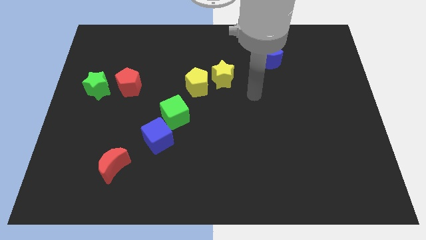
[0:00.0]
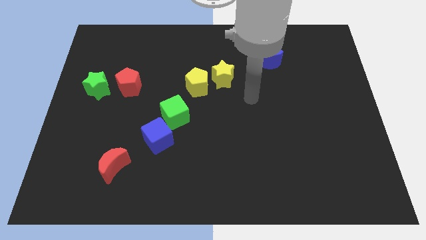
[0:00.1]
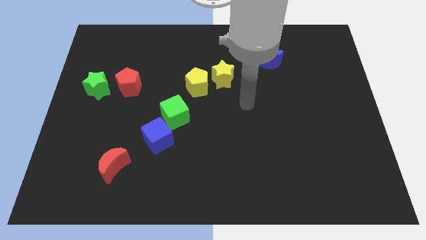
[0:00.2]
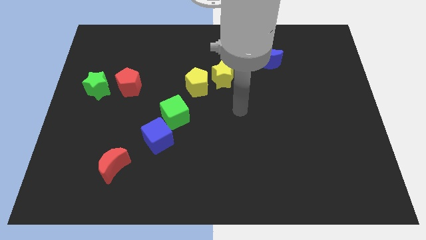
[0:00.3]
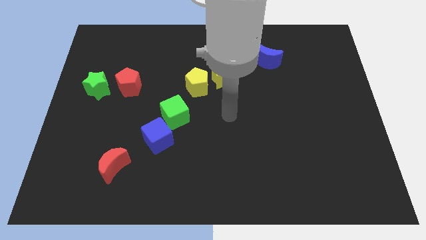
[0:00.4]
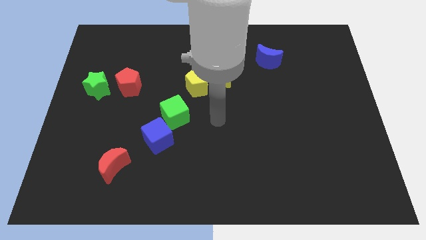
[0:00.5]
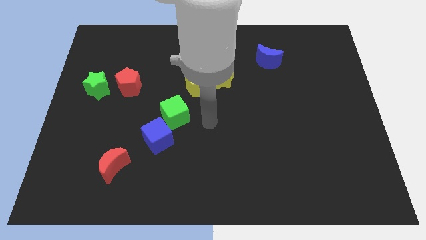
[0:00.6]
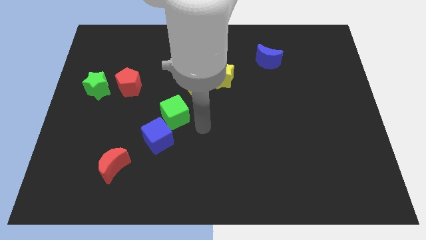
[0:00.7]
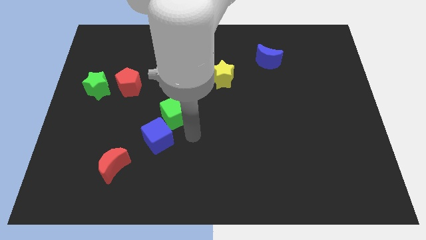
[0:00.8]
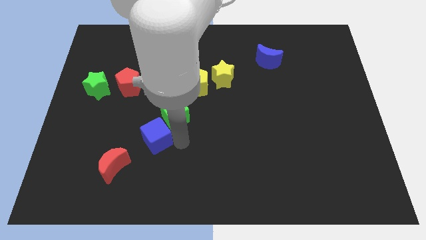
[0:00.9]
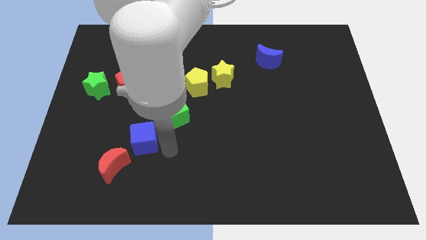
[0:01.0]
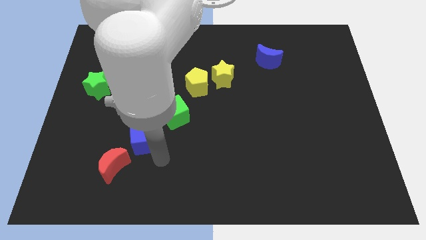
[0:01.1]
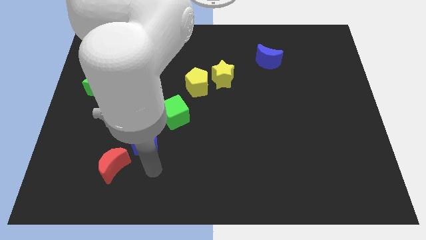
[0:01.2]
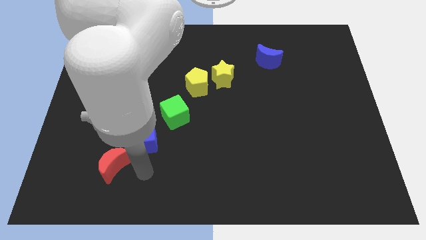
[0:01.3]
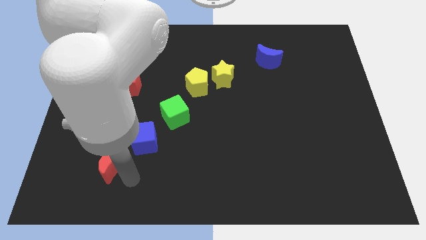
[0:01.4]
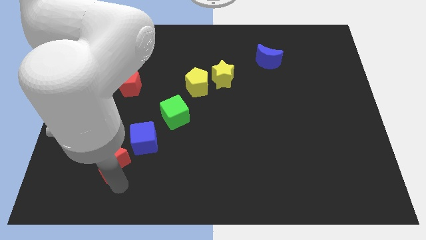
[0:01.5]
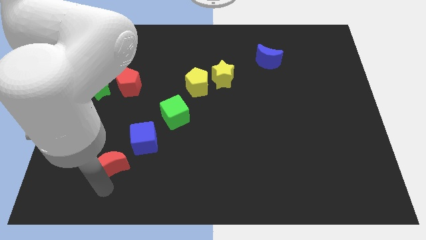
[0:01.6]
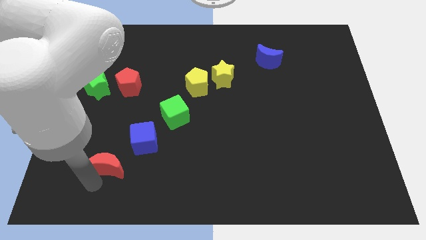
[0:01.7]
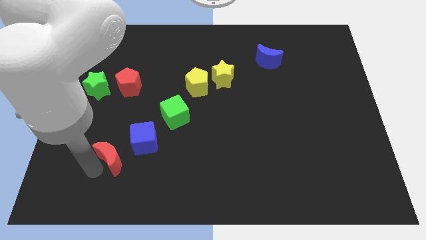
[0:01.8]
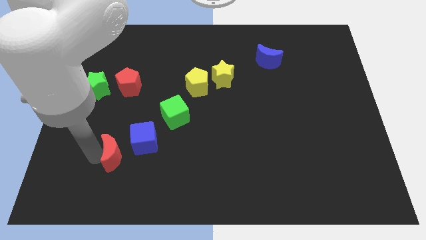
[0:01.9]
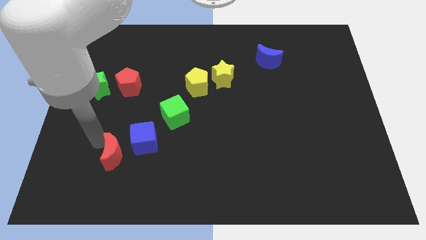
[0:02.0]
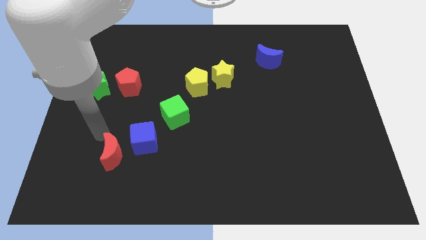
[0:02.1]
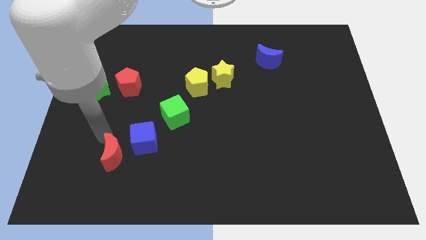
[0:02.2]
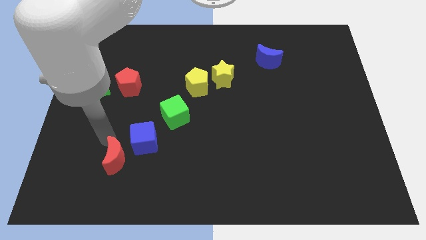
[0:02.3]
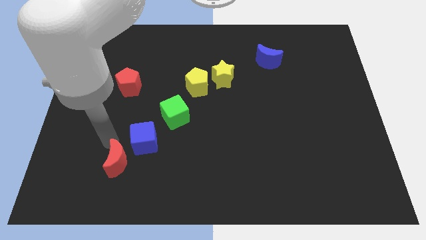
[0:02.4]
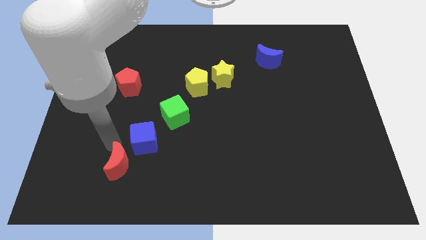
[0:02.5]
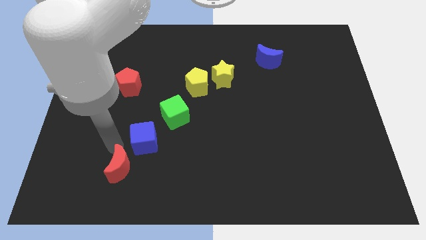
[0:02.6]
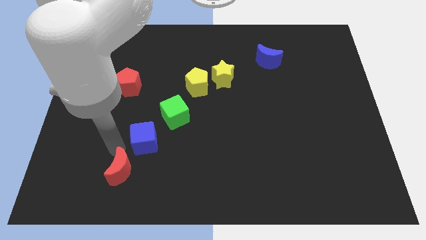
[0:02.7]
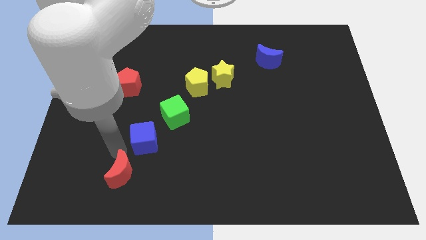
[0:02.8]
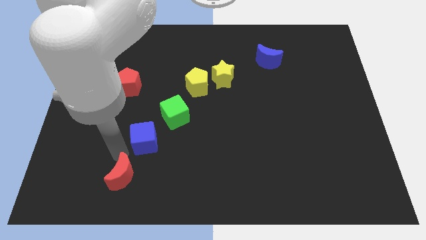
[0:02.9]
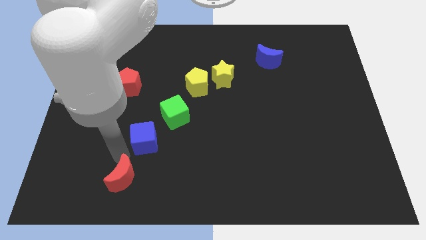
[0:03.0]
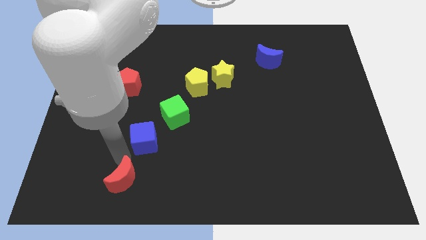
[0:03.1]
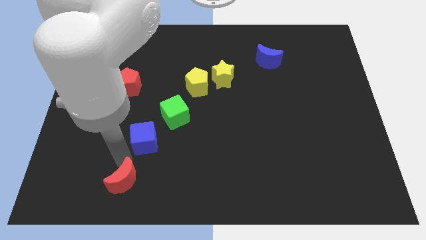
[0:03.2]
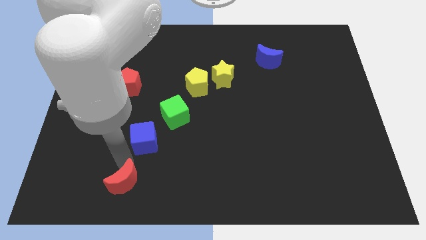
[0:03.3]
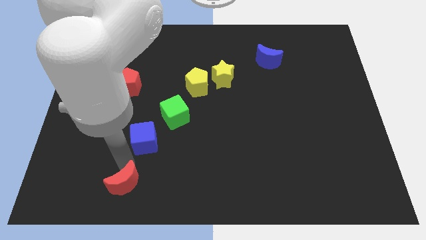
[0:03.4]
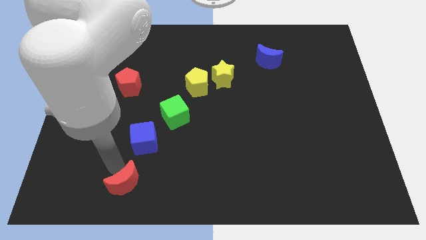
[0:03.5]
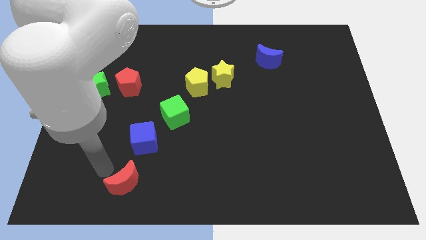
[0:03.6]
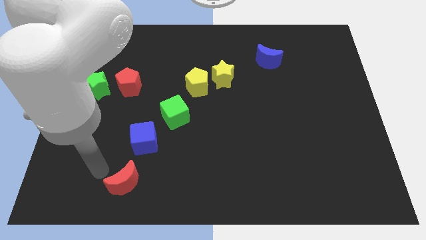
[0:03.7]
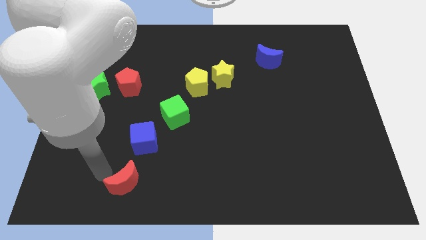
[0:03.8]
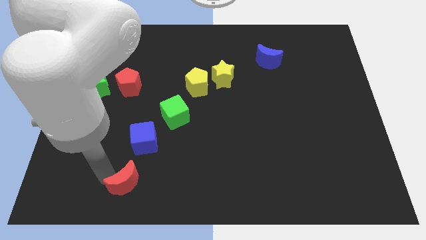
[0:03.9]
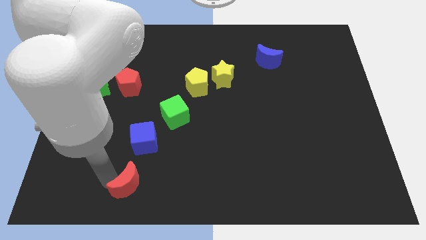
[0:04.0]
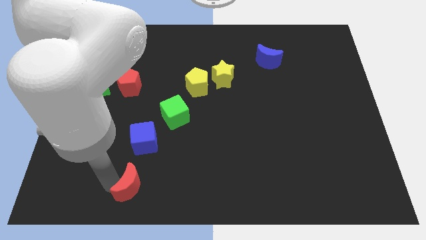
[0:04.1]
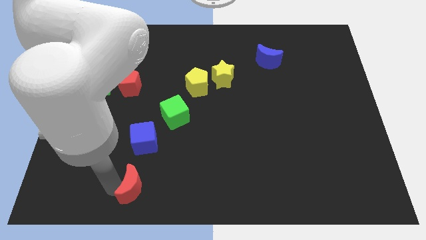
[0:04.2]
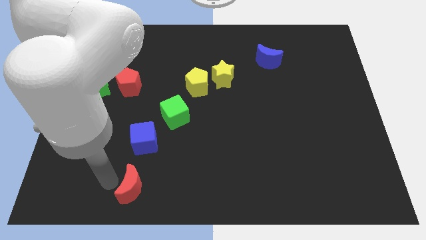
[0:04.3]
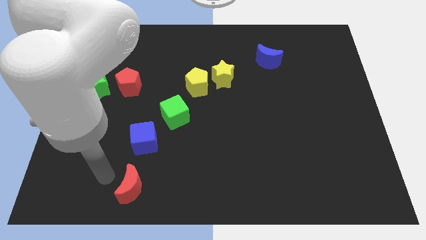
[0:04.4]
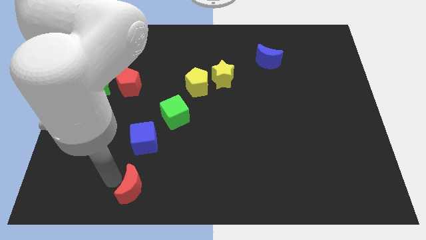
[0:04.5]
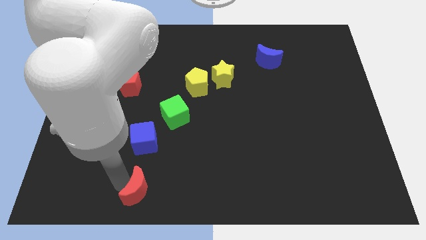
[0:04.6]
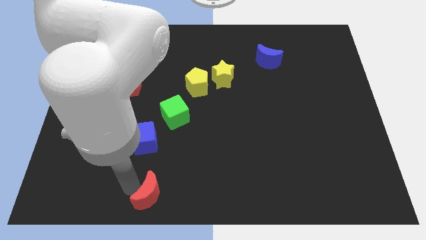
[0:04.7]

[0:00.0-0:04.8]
push the red moon to the bottom side

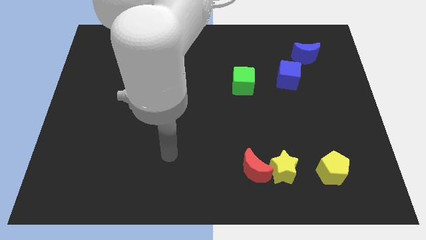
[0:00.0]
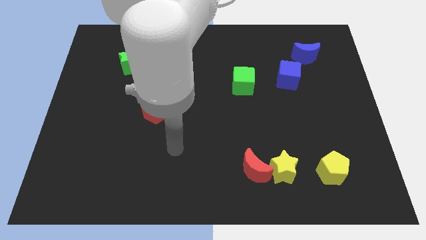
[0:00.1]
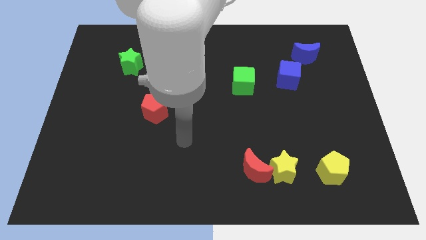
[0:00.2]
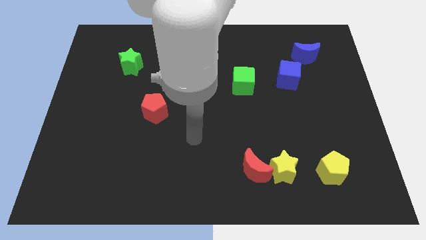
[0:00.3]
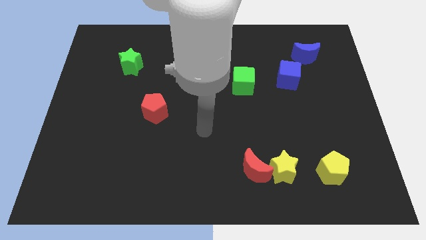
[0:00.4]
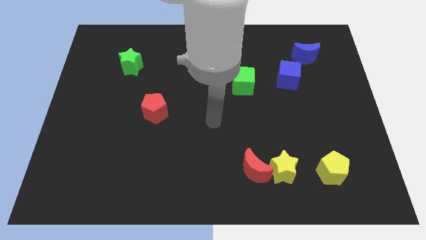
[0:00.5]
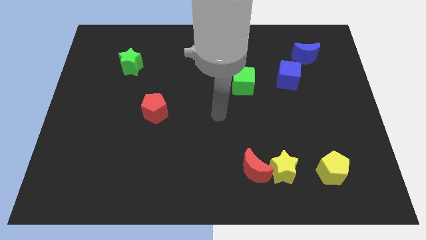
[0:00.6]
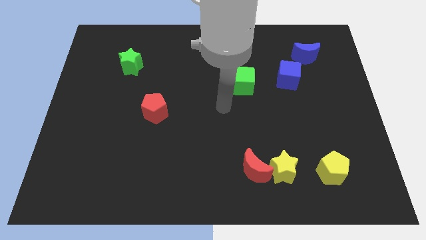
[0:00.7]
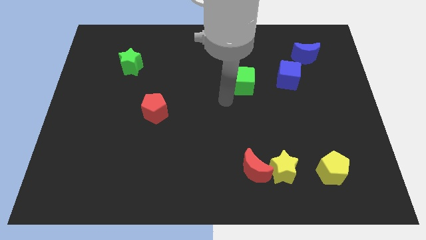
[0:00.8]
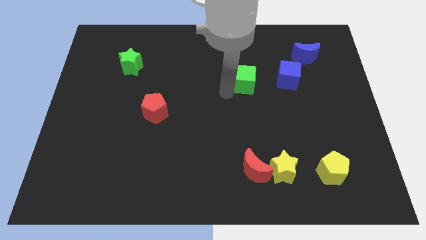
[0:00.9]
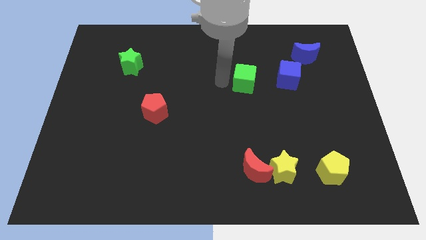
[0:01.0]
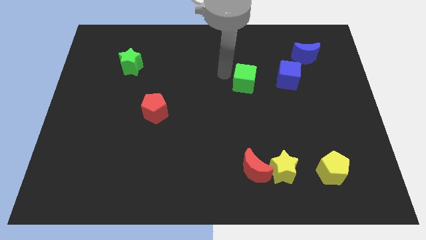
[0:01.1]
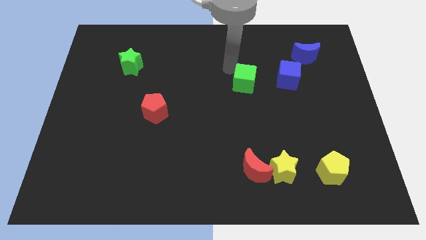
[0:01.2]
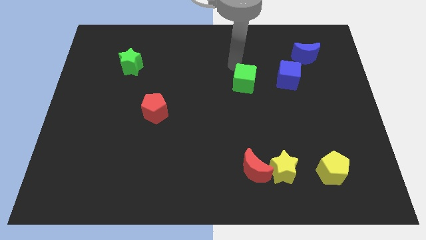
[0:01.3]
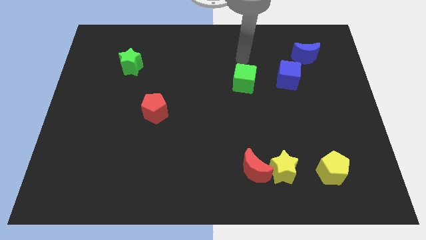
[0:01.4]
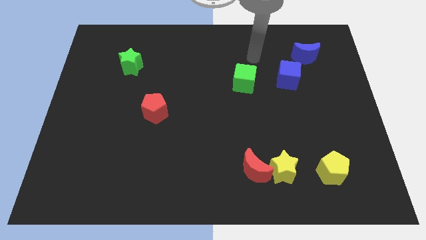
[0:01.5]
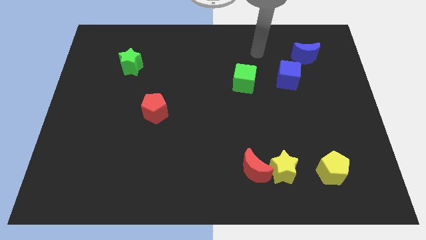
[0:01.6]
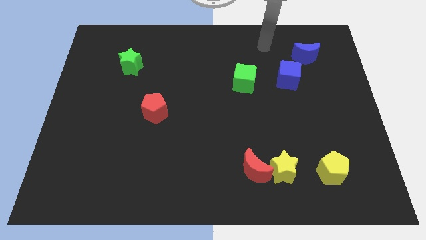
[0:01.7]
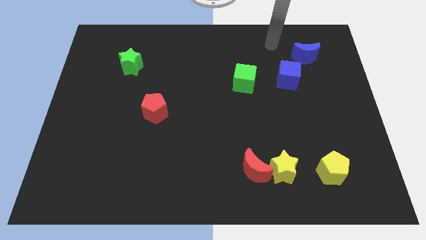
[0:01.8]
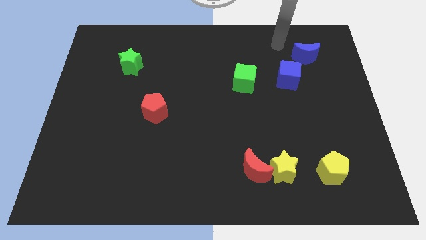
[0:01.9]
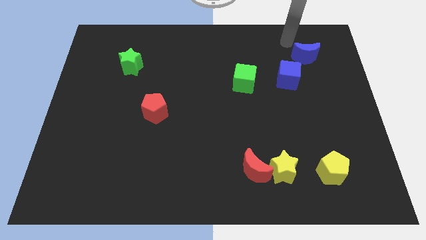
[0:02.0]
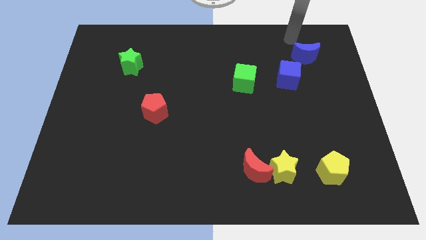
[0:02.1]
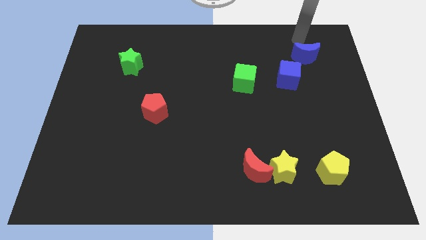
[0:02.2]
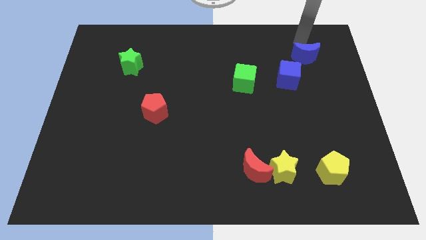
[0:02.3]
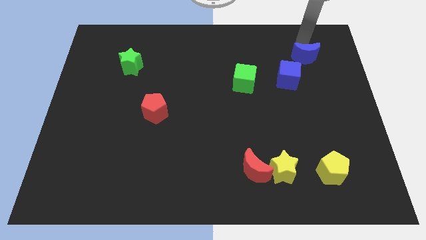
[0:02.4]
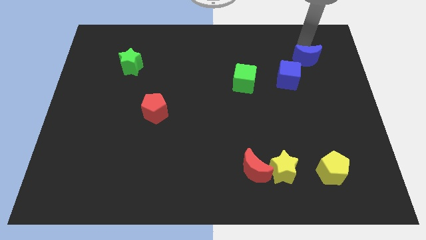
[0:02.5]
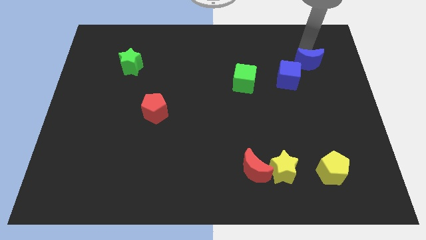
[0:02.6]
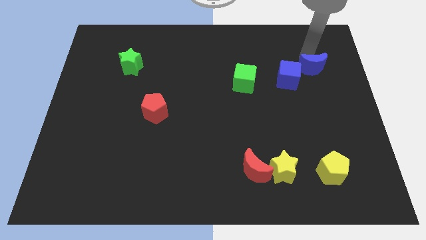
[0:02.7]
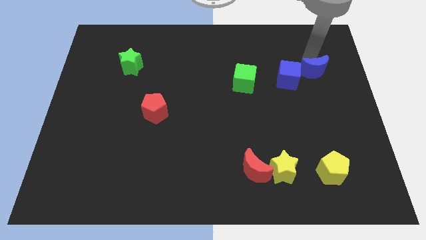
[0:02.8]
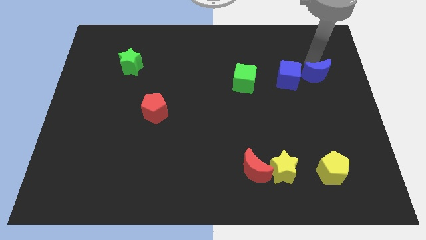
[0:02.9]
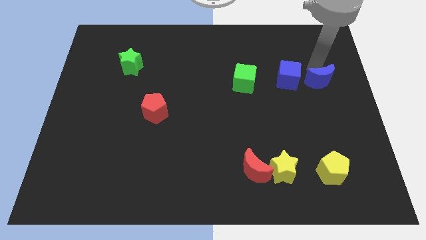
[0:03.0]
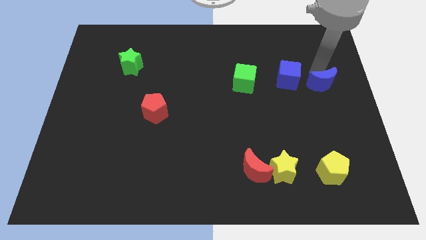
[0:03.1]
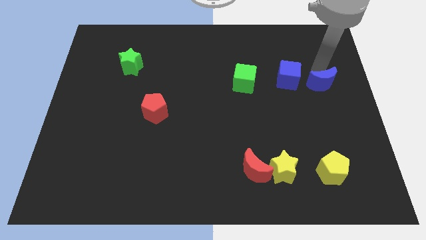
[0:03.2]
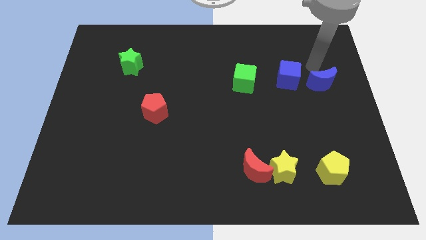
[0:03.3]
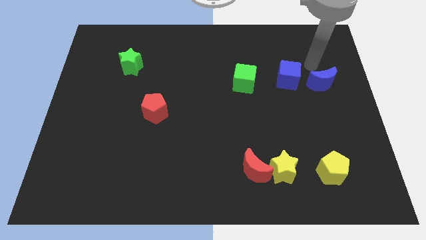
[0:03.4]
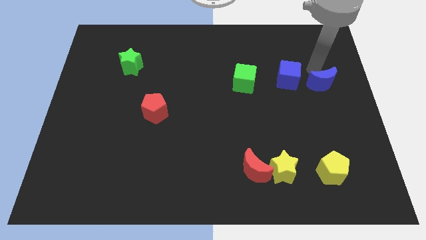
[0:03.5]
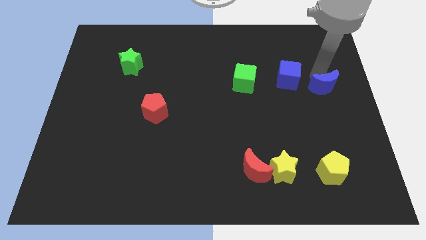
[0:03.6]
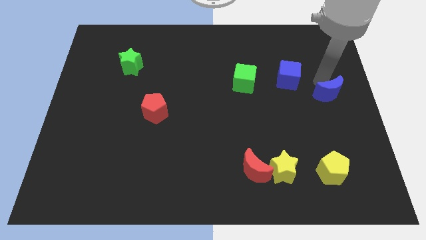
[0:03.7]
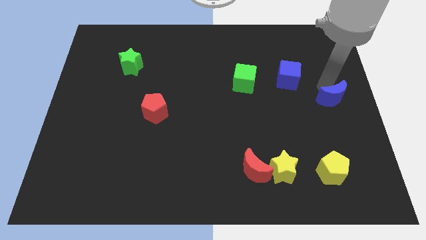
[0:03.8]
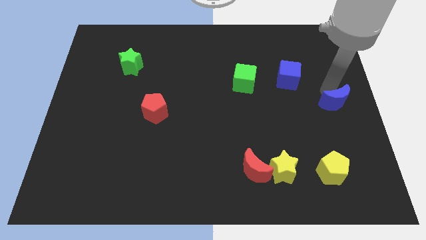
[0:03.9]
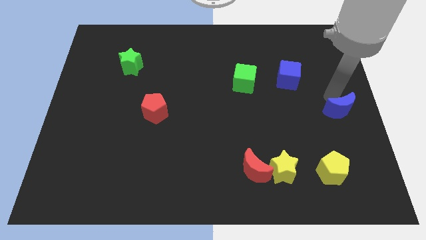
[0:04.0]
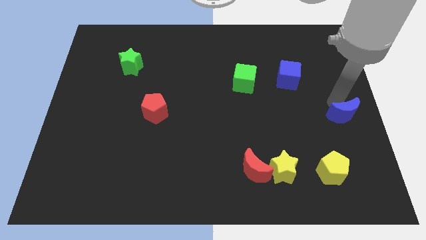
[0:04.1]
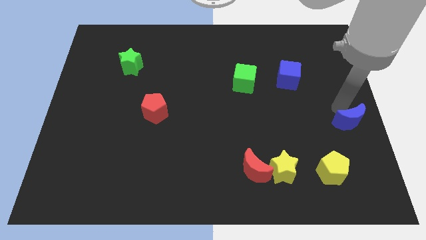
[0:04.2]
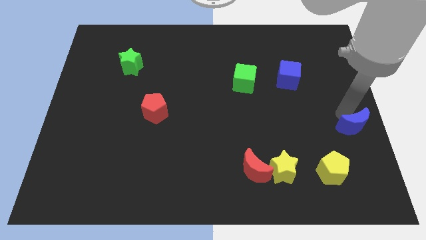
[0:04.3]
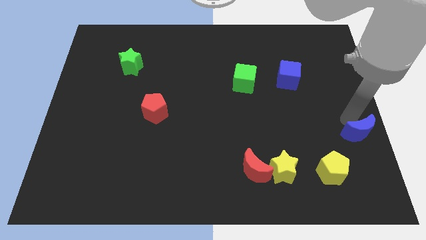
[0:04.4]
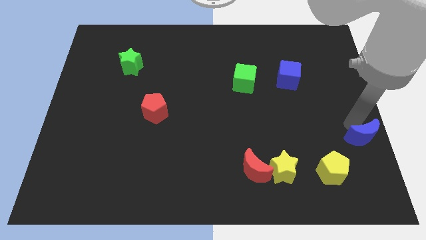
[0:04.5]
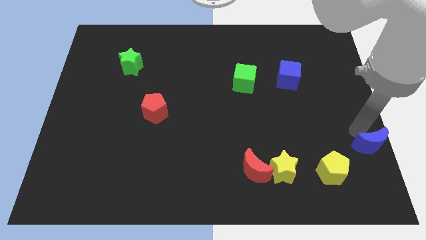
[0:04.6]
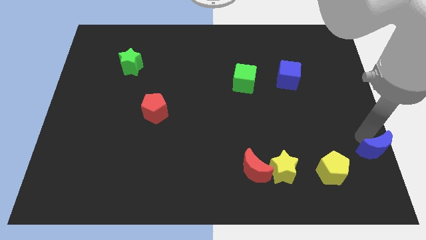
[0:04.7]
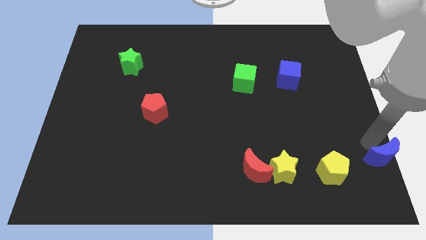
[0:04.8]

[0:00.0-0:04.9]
move the blue moon to the bottom right of the board
